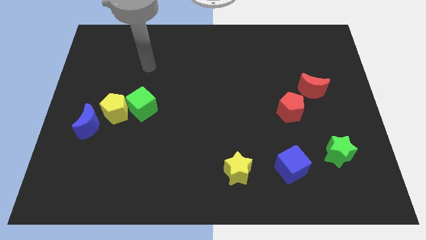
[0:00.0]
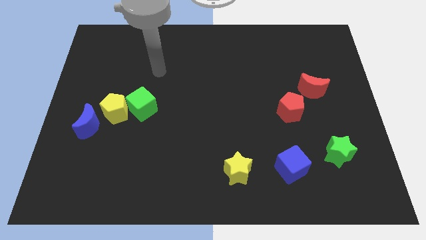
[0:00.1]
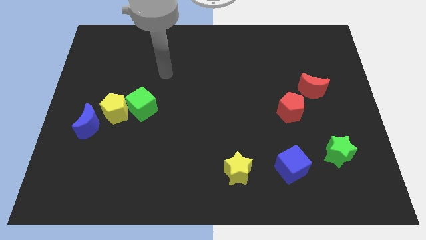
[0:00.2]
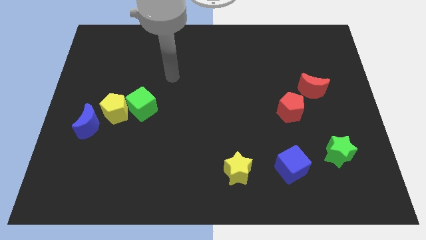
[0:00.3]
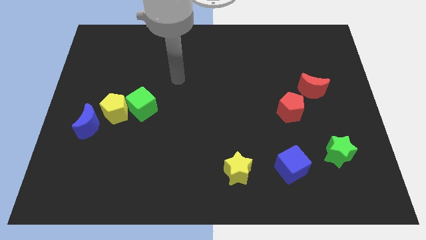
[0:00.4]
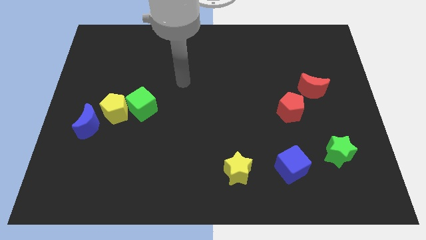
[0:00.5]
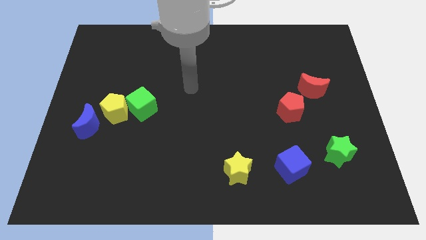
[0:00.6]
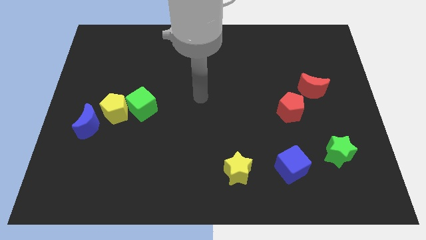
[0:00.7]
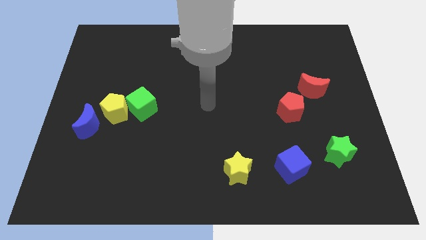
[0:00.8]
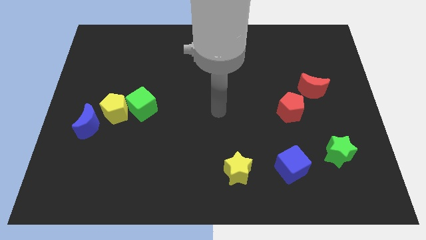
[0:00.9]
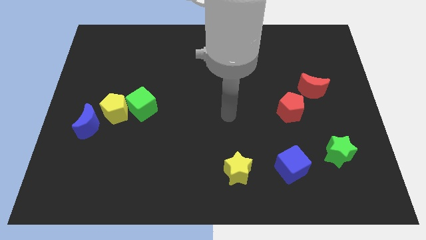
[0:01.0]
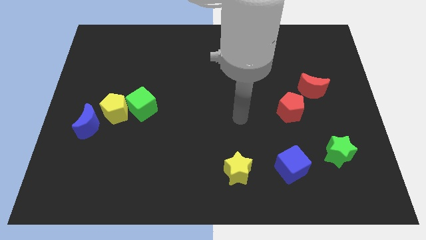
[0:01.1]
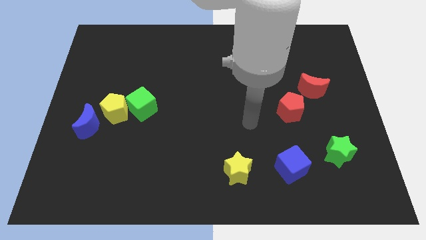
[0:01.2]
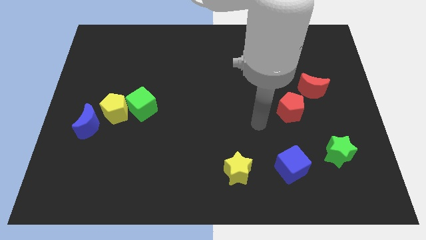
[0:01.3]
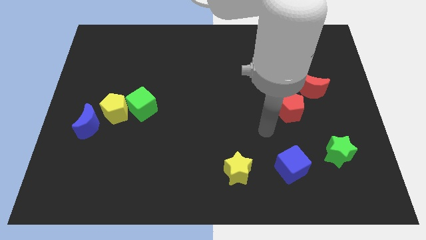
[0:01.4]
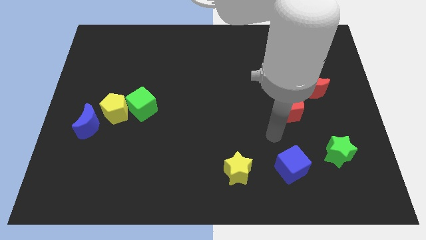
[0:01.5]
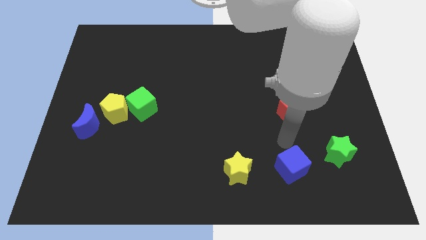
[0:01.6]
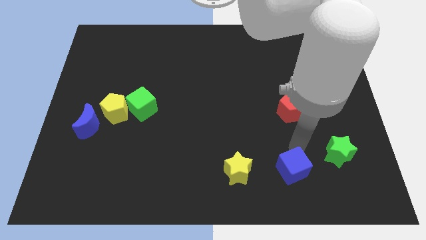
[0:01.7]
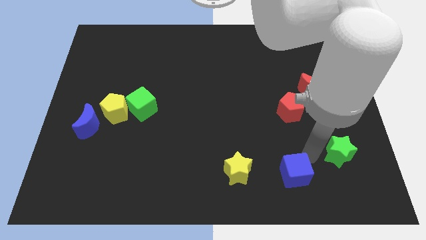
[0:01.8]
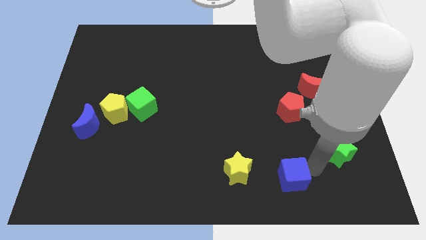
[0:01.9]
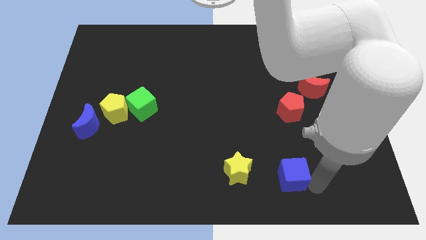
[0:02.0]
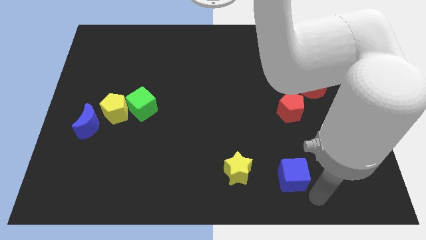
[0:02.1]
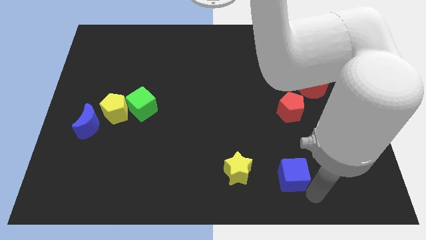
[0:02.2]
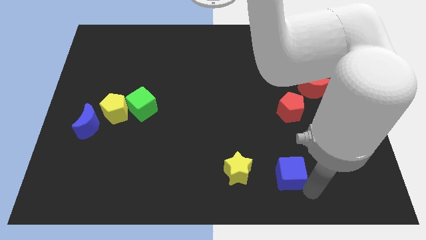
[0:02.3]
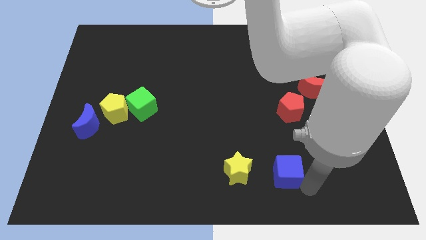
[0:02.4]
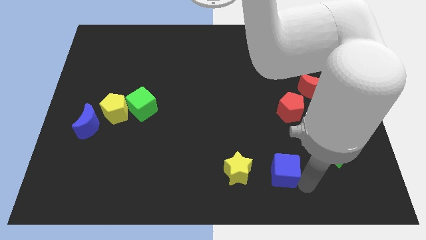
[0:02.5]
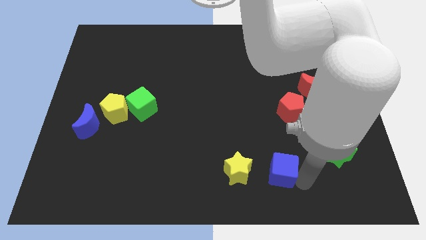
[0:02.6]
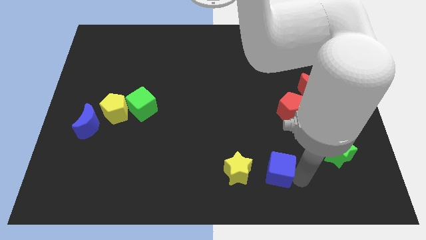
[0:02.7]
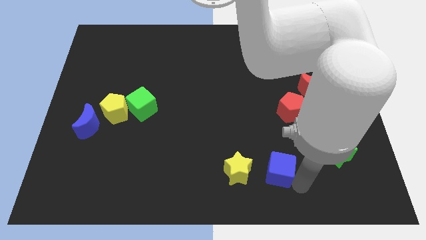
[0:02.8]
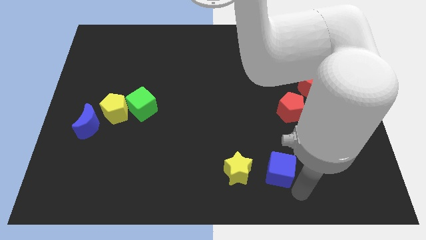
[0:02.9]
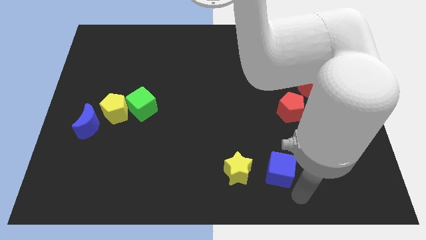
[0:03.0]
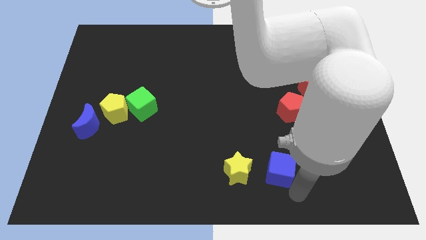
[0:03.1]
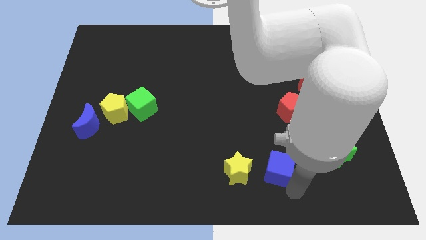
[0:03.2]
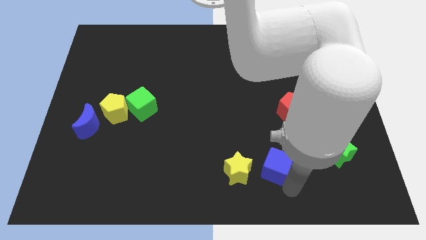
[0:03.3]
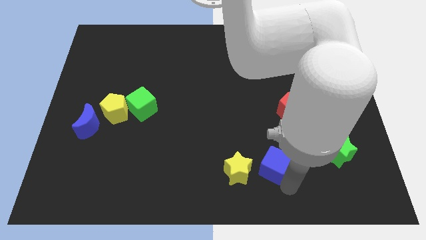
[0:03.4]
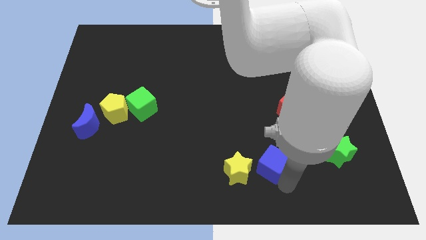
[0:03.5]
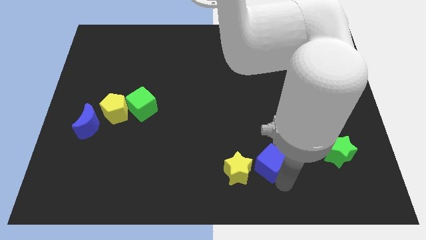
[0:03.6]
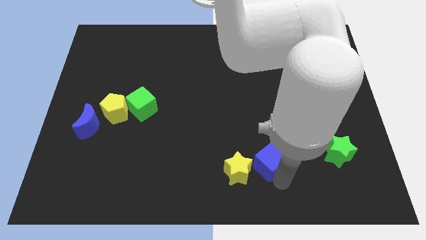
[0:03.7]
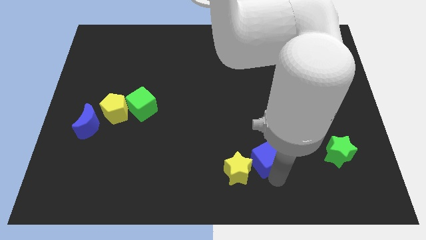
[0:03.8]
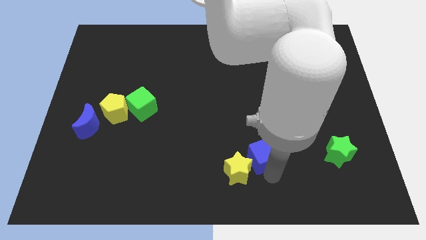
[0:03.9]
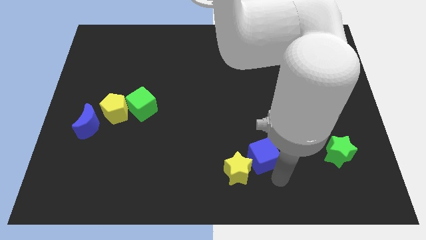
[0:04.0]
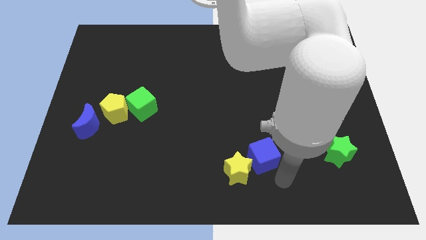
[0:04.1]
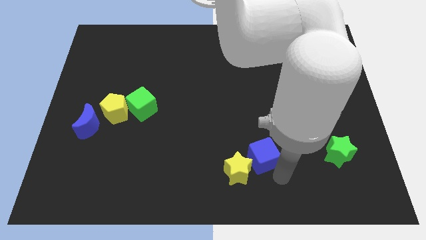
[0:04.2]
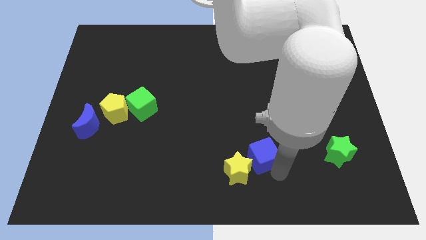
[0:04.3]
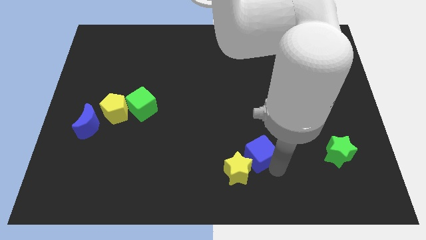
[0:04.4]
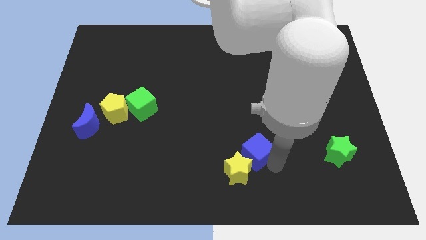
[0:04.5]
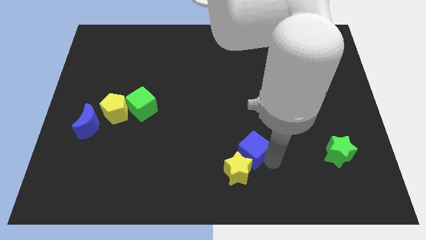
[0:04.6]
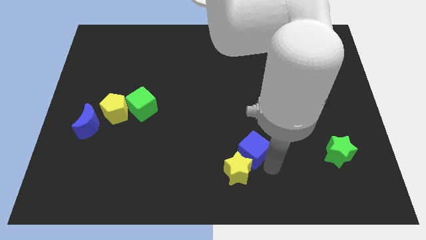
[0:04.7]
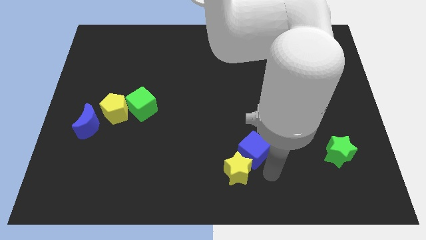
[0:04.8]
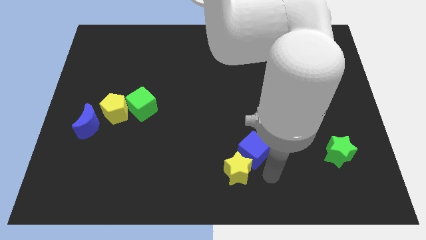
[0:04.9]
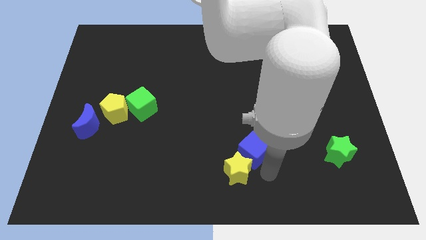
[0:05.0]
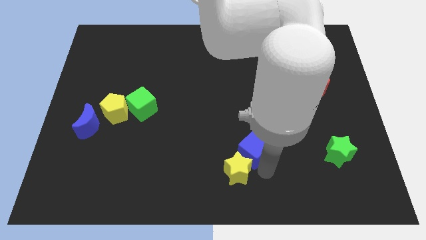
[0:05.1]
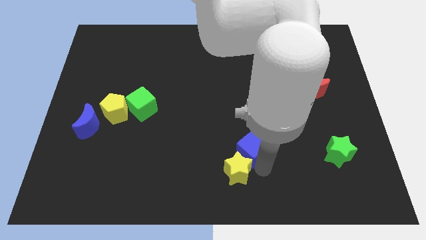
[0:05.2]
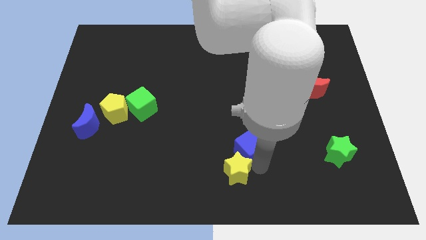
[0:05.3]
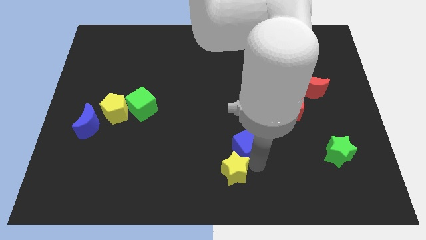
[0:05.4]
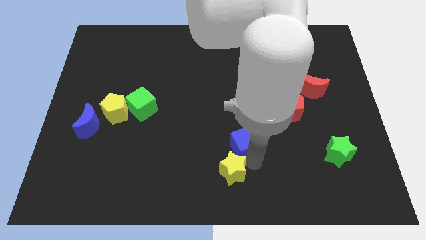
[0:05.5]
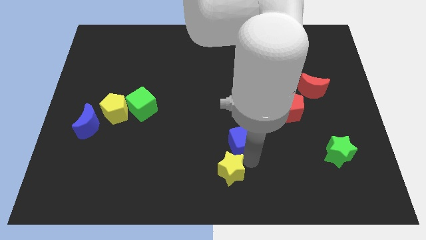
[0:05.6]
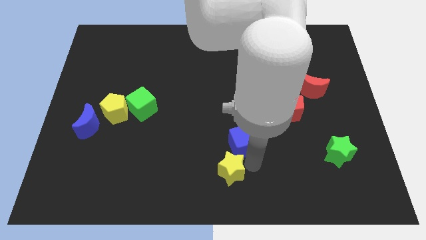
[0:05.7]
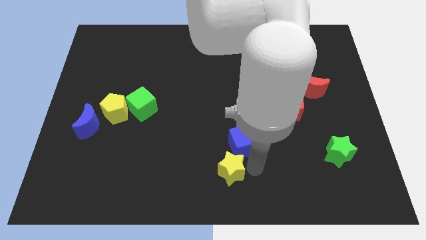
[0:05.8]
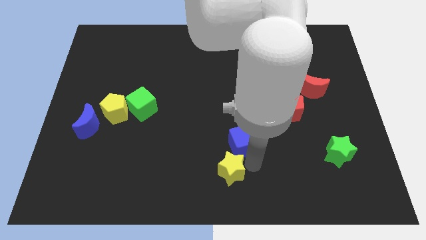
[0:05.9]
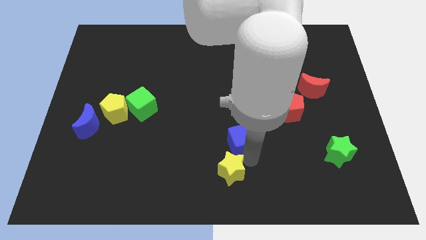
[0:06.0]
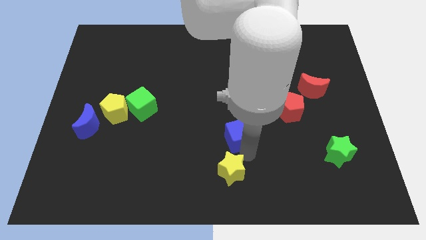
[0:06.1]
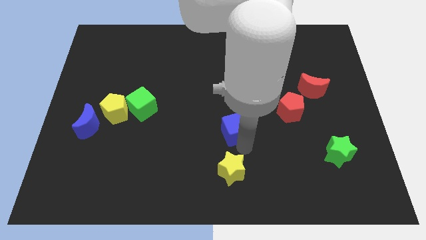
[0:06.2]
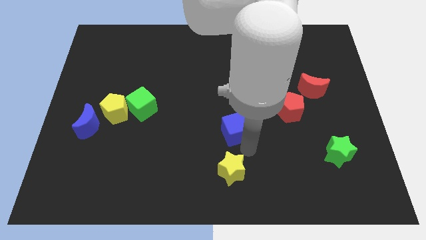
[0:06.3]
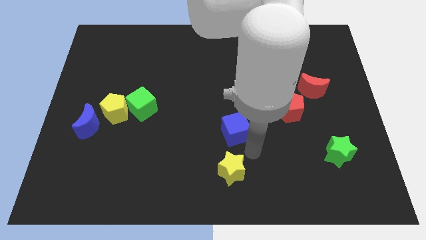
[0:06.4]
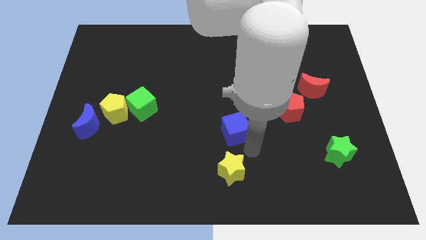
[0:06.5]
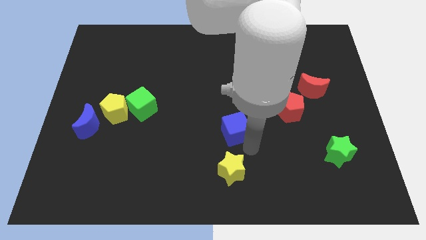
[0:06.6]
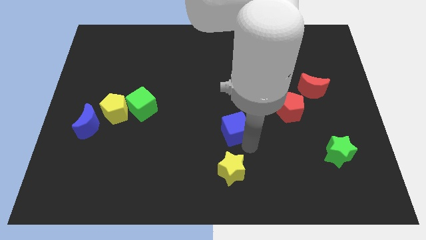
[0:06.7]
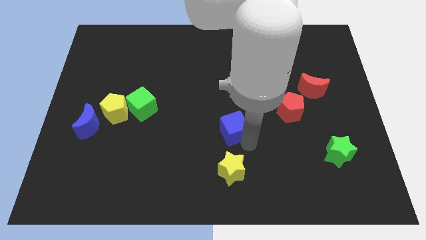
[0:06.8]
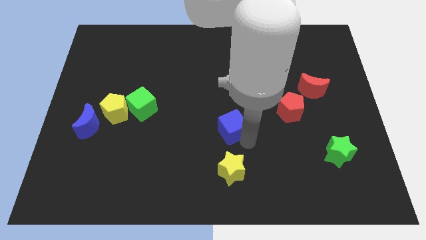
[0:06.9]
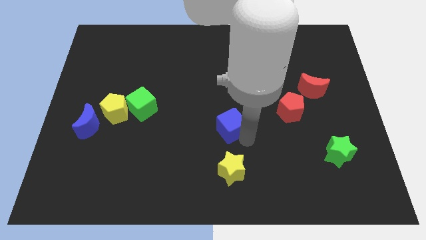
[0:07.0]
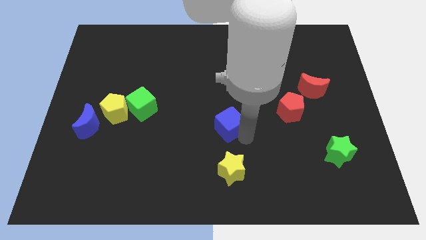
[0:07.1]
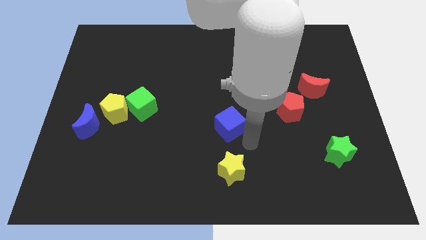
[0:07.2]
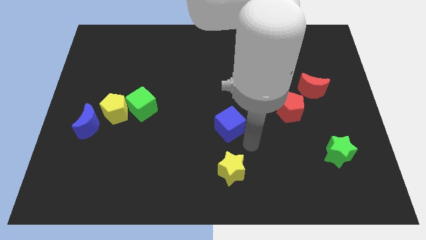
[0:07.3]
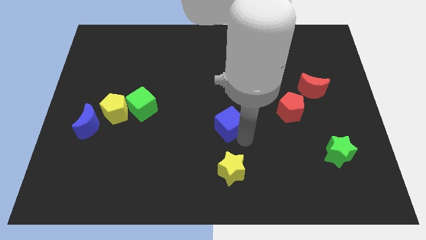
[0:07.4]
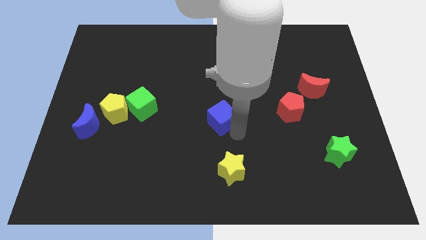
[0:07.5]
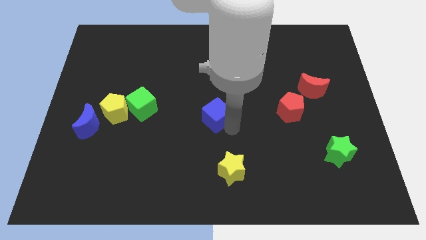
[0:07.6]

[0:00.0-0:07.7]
push the blue cube up and then left

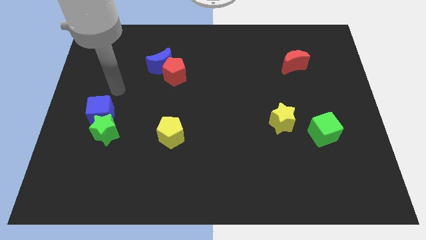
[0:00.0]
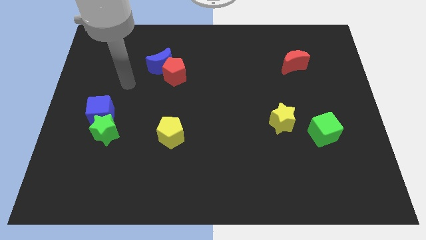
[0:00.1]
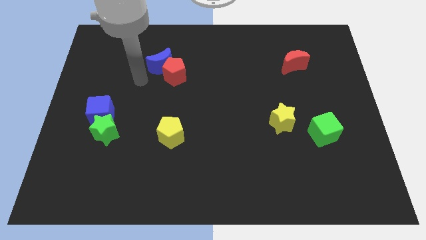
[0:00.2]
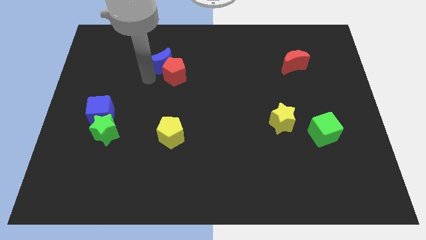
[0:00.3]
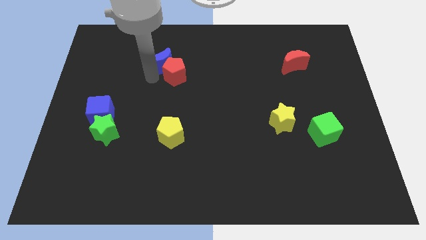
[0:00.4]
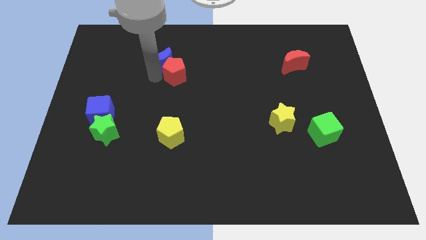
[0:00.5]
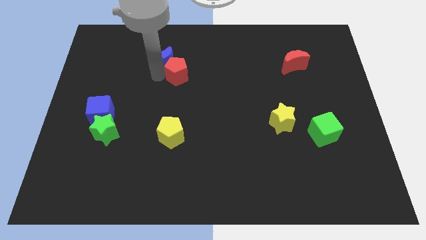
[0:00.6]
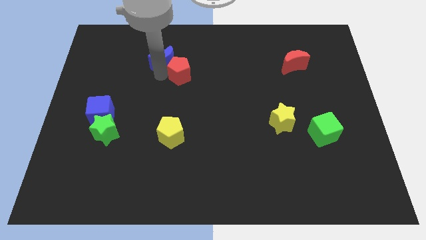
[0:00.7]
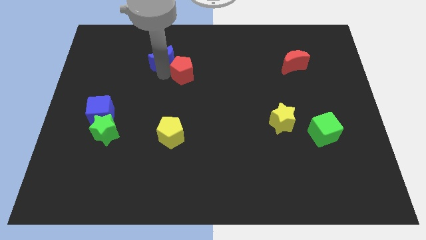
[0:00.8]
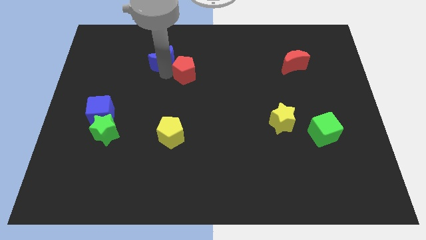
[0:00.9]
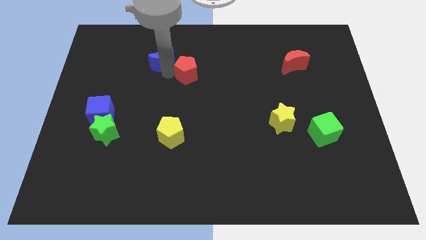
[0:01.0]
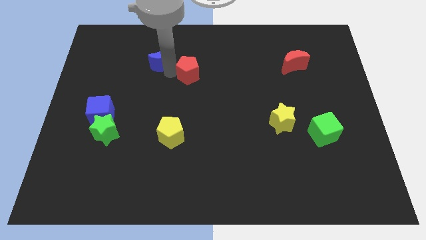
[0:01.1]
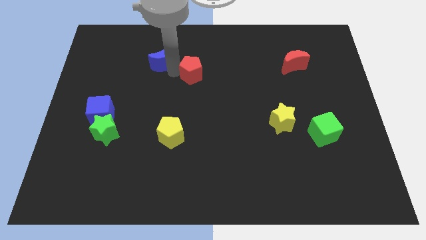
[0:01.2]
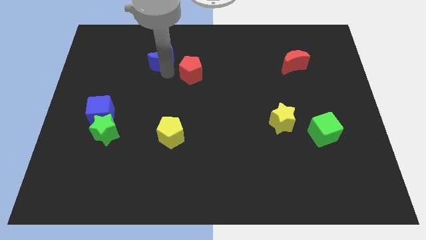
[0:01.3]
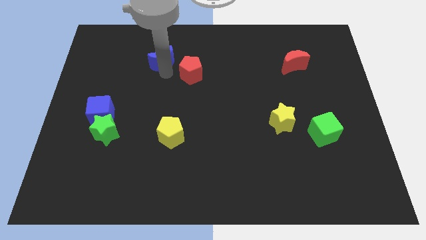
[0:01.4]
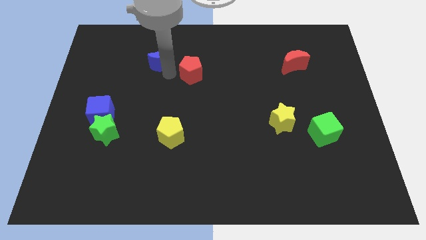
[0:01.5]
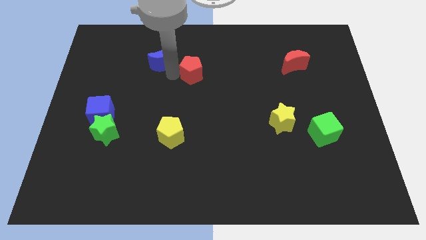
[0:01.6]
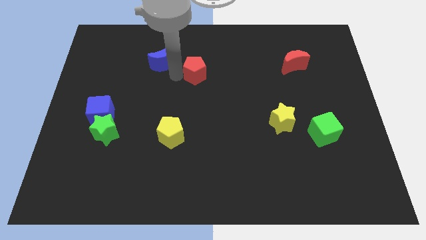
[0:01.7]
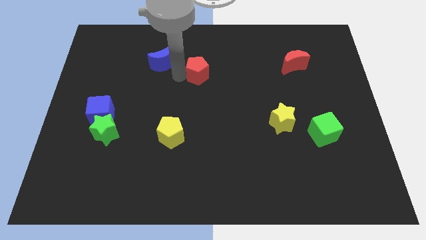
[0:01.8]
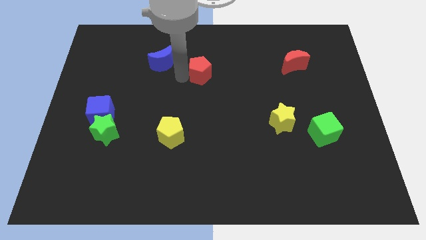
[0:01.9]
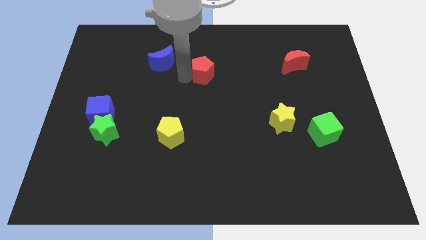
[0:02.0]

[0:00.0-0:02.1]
move the red pentagon slightly right
